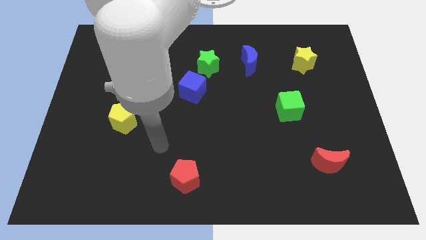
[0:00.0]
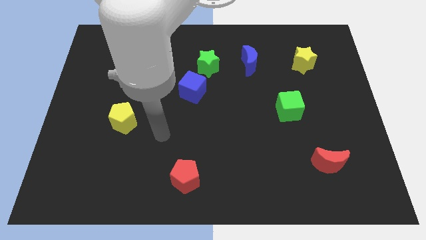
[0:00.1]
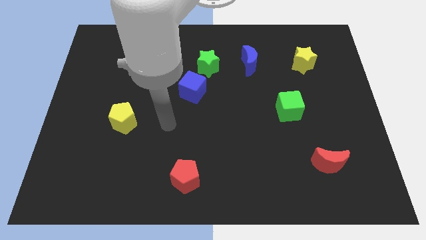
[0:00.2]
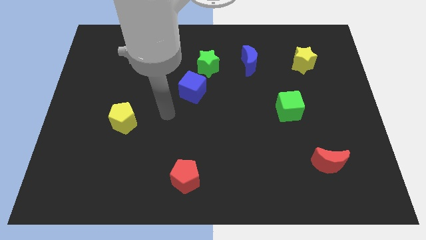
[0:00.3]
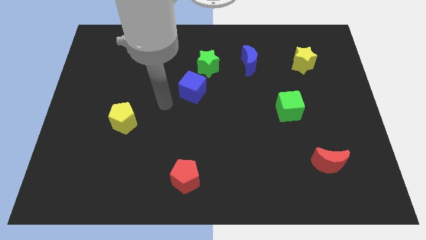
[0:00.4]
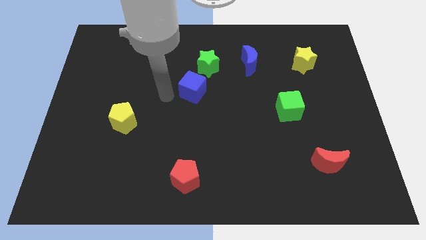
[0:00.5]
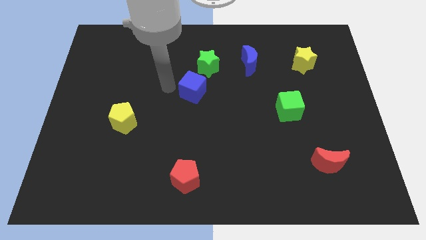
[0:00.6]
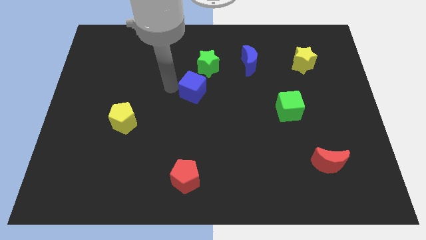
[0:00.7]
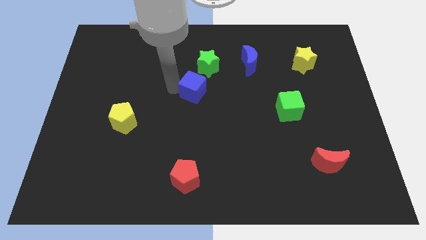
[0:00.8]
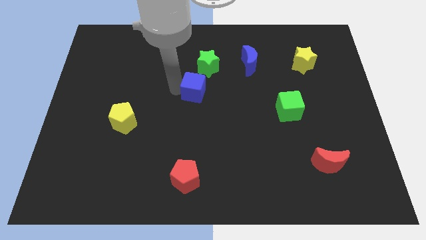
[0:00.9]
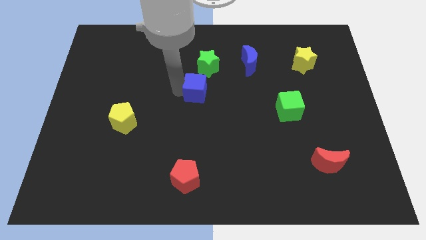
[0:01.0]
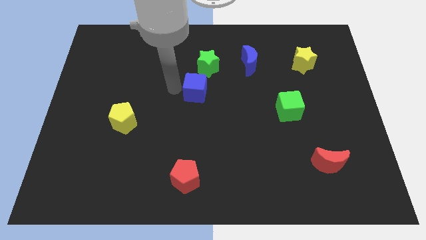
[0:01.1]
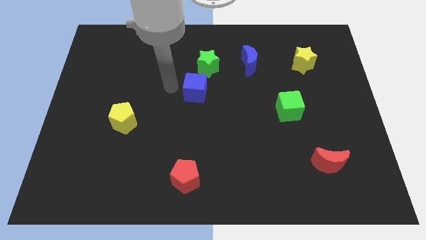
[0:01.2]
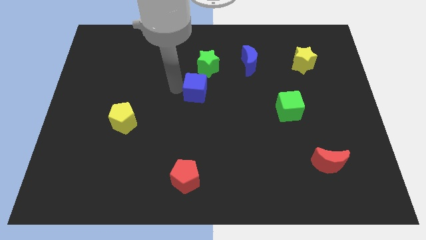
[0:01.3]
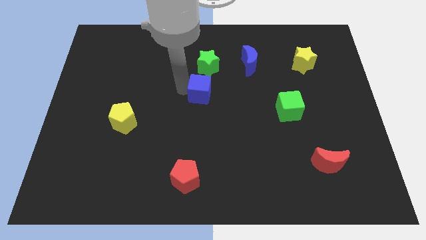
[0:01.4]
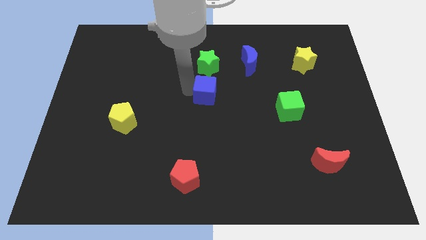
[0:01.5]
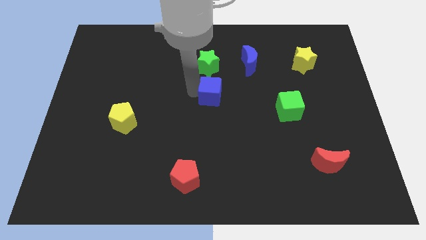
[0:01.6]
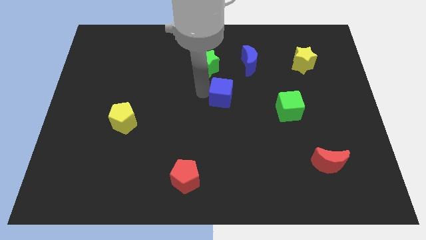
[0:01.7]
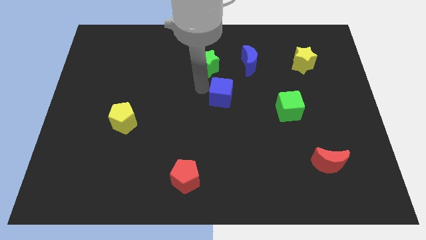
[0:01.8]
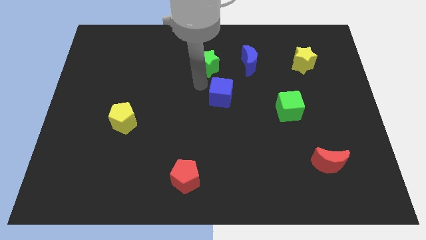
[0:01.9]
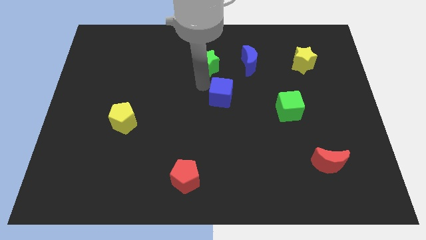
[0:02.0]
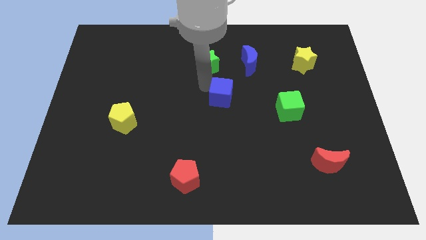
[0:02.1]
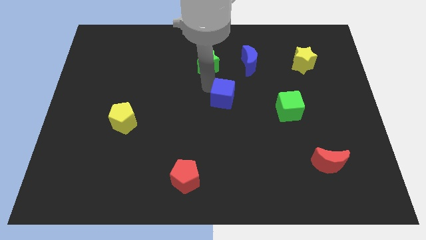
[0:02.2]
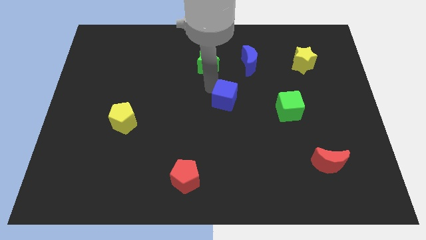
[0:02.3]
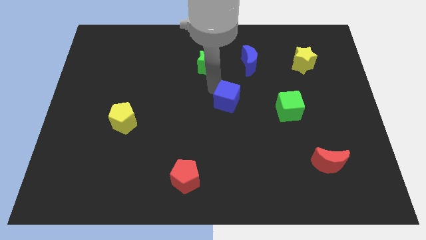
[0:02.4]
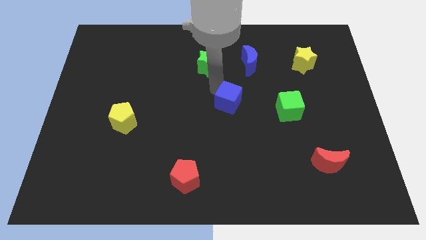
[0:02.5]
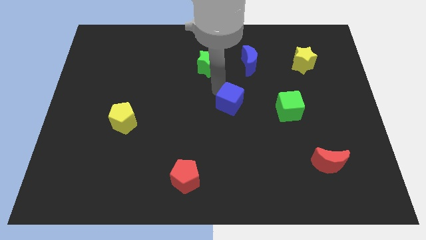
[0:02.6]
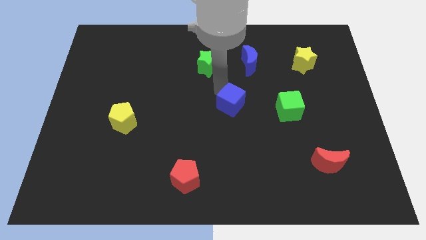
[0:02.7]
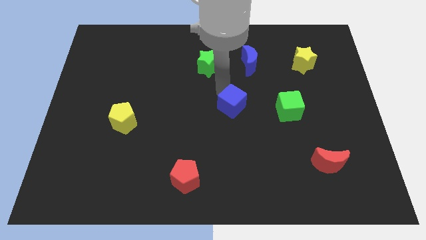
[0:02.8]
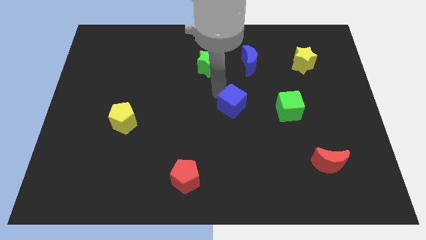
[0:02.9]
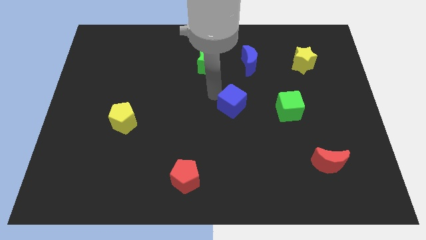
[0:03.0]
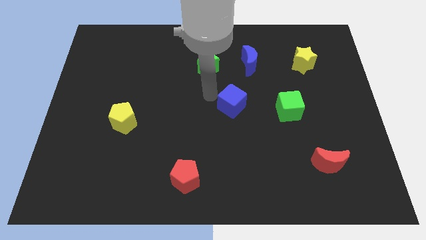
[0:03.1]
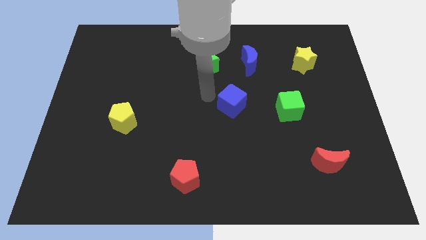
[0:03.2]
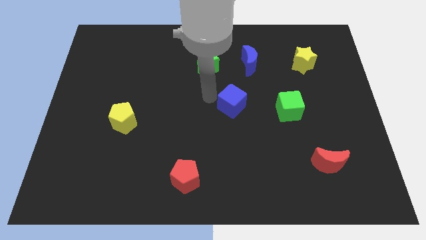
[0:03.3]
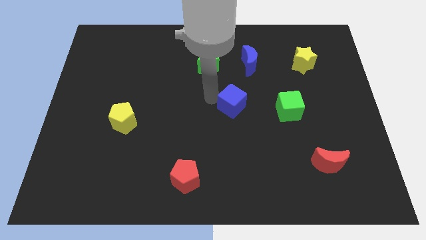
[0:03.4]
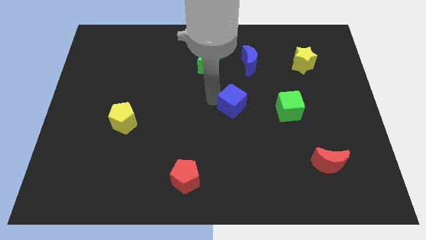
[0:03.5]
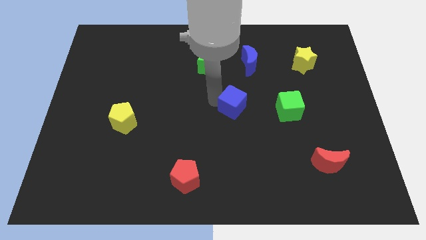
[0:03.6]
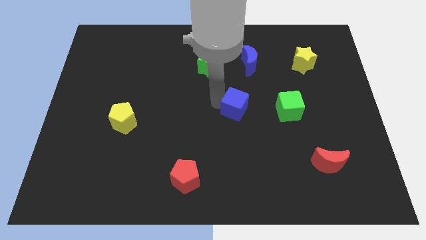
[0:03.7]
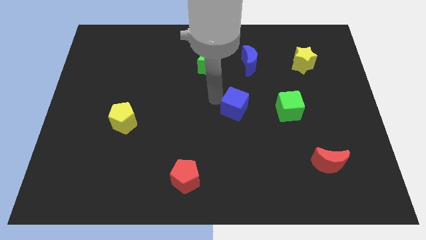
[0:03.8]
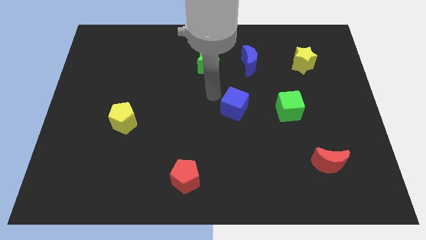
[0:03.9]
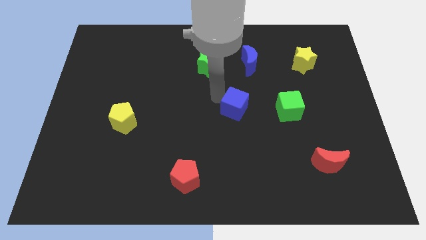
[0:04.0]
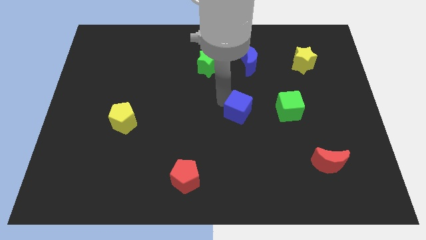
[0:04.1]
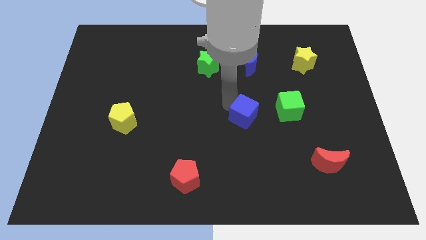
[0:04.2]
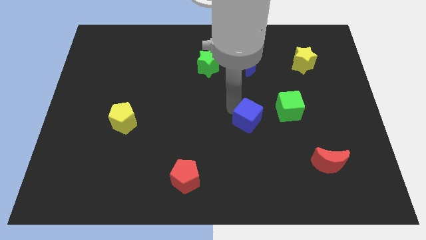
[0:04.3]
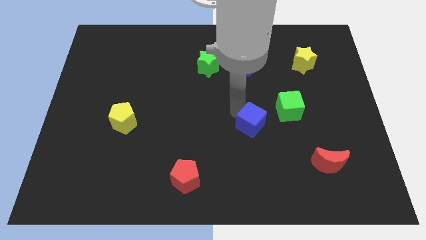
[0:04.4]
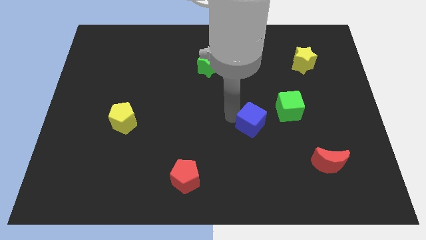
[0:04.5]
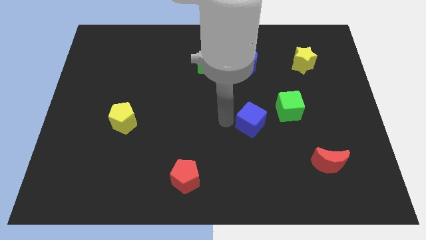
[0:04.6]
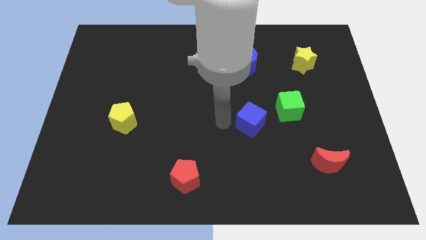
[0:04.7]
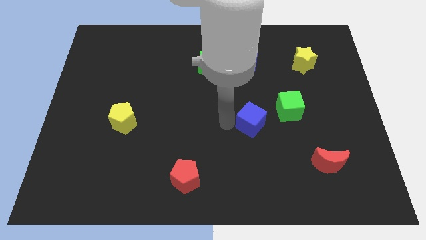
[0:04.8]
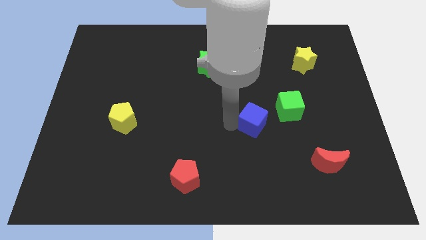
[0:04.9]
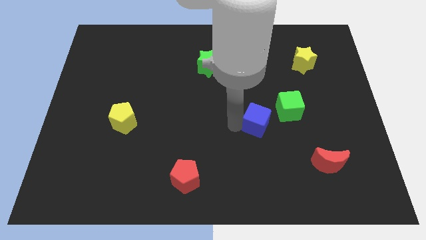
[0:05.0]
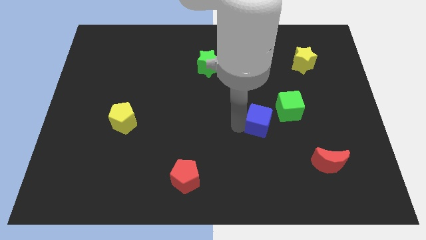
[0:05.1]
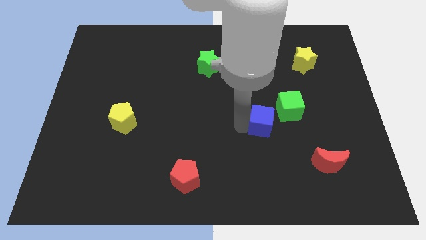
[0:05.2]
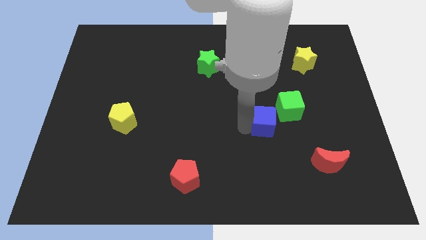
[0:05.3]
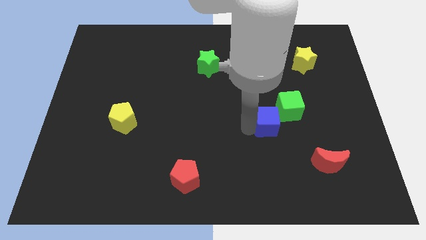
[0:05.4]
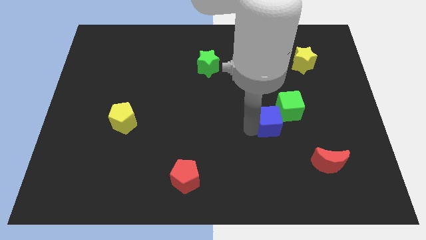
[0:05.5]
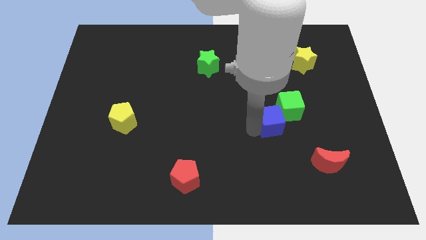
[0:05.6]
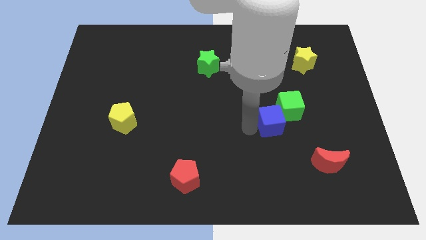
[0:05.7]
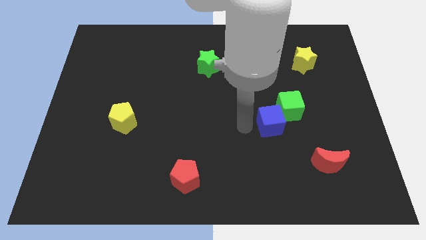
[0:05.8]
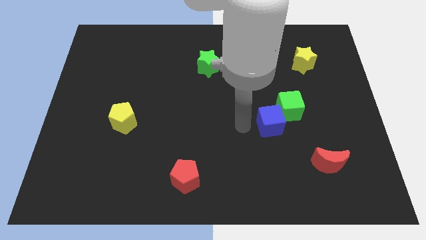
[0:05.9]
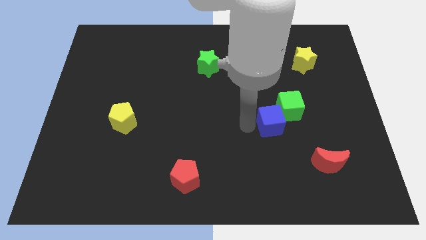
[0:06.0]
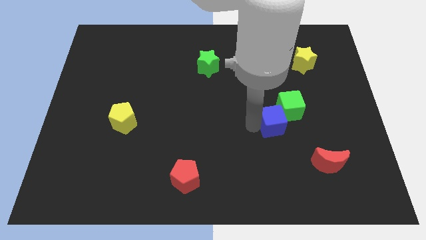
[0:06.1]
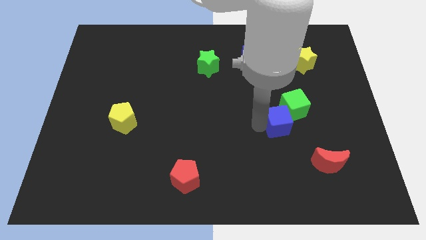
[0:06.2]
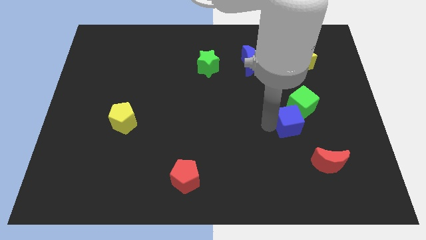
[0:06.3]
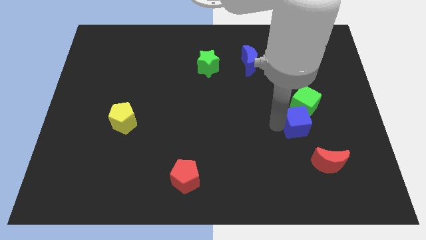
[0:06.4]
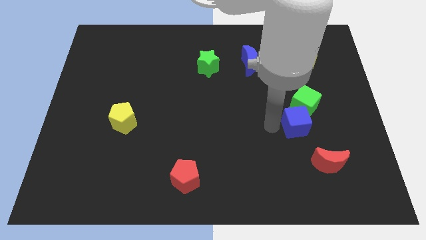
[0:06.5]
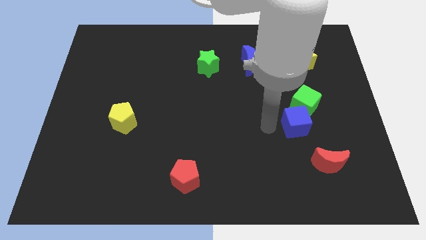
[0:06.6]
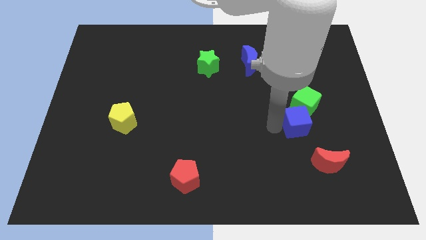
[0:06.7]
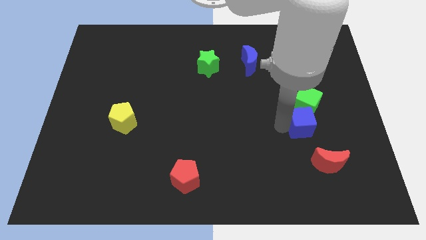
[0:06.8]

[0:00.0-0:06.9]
push the blue cube to the top side of the red moon
